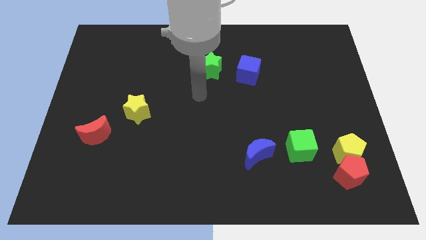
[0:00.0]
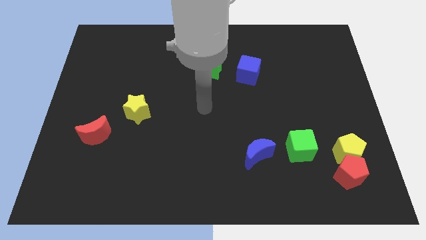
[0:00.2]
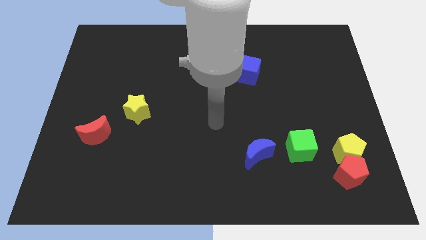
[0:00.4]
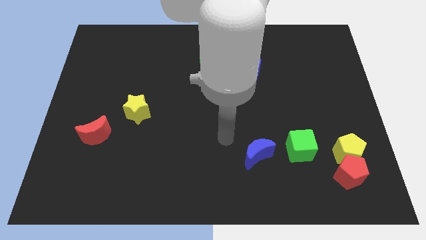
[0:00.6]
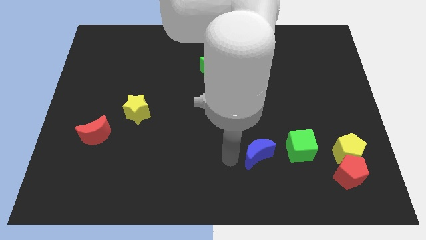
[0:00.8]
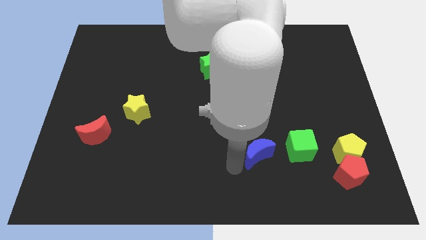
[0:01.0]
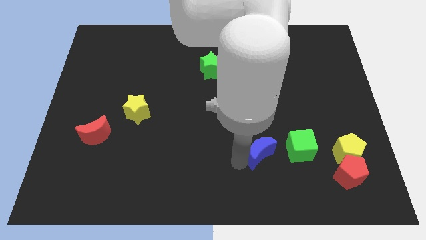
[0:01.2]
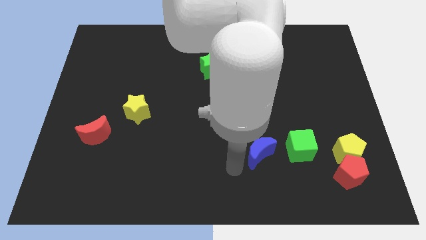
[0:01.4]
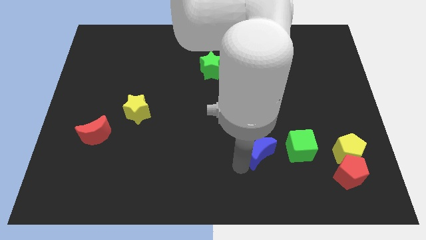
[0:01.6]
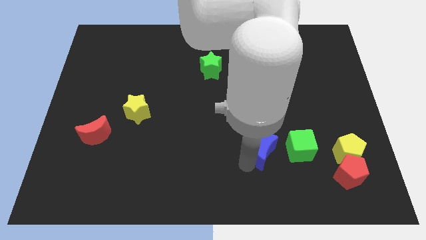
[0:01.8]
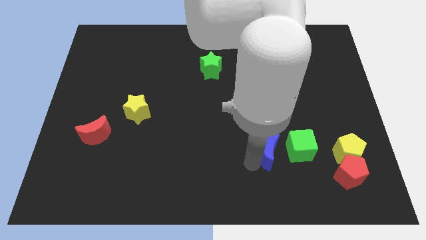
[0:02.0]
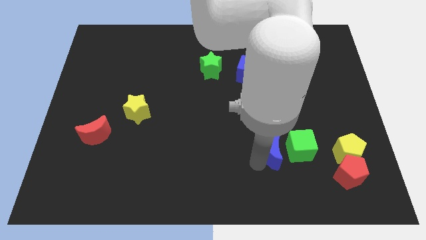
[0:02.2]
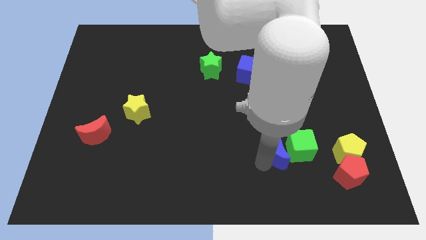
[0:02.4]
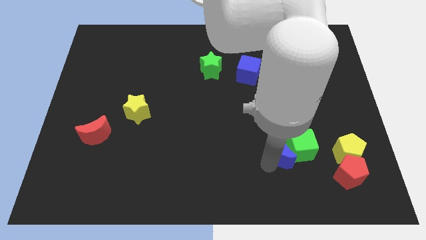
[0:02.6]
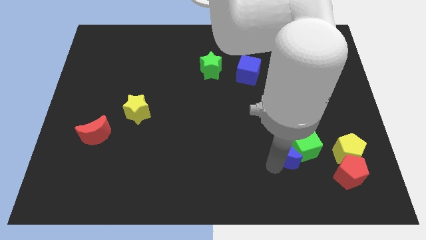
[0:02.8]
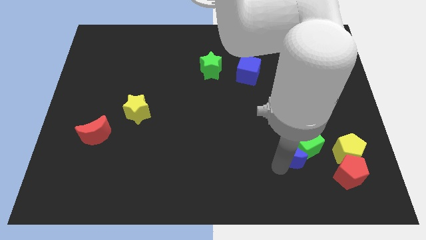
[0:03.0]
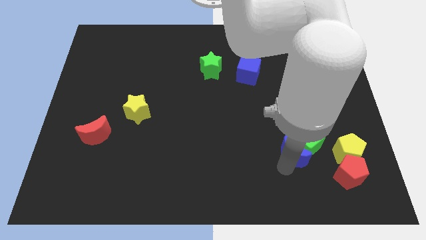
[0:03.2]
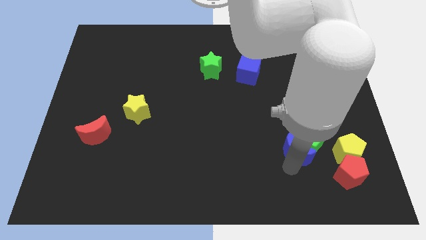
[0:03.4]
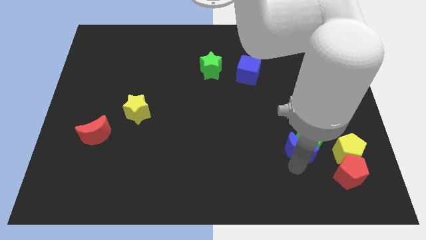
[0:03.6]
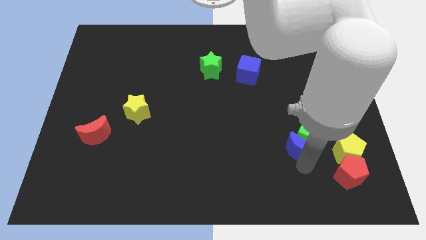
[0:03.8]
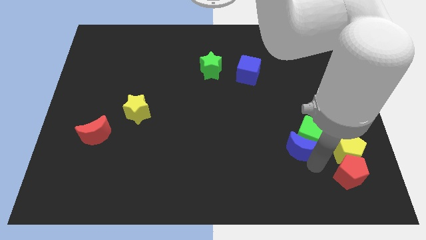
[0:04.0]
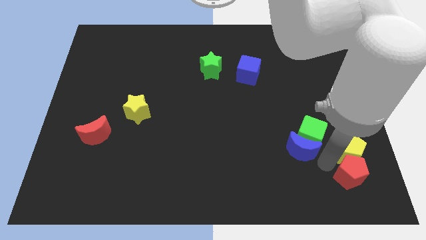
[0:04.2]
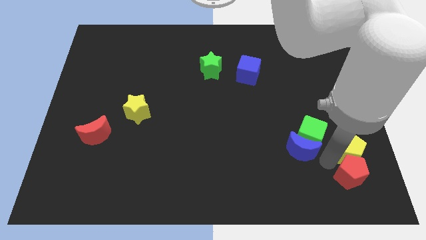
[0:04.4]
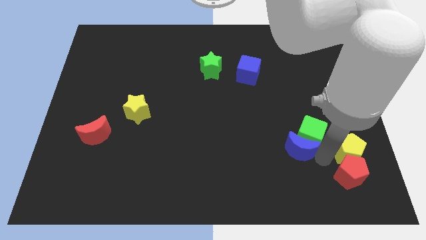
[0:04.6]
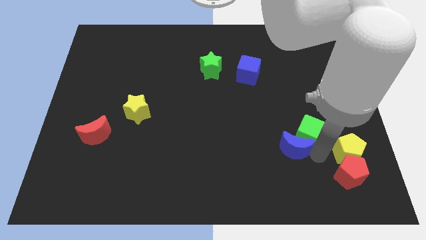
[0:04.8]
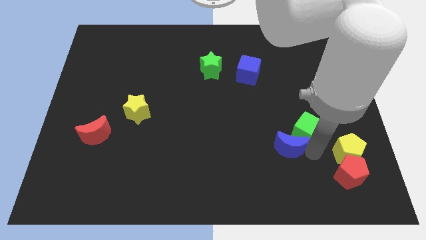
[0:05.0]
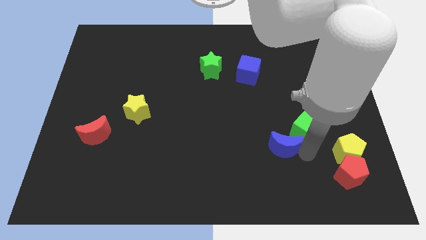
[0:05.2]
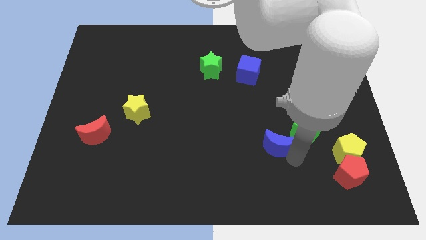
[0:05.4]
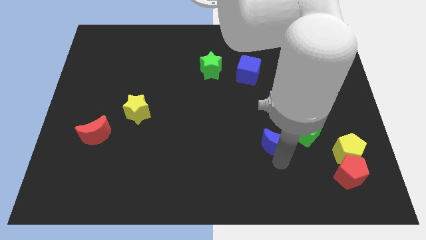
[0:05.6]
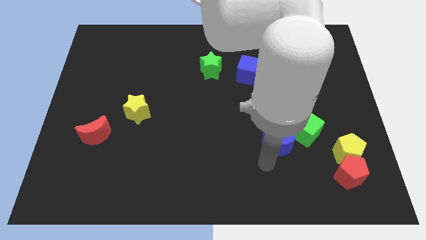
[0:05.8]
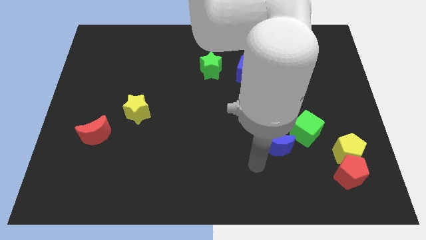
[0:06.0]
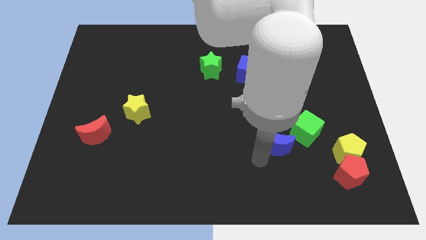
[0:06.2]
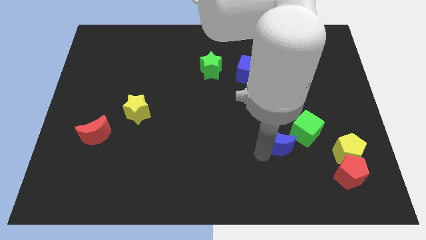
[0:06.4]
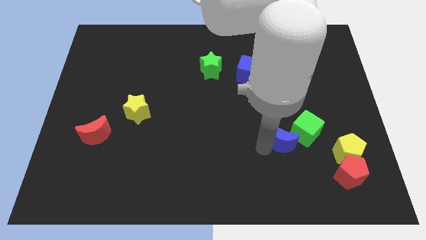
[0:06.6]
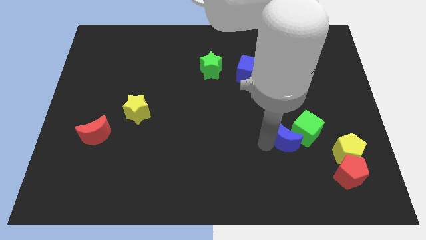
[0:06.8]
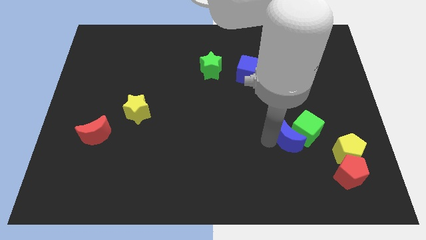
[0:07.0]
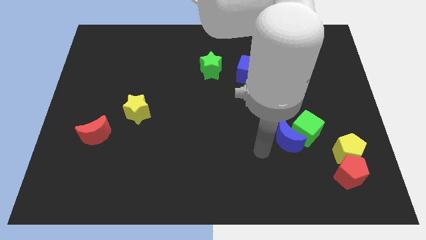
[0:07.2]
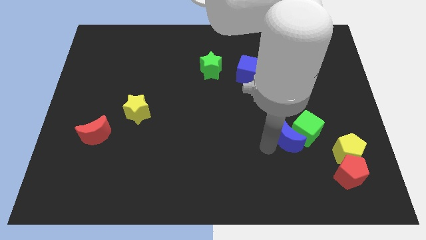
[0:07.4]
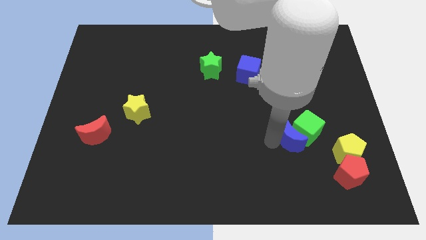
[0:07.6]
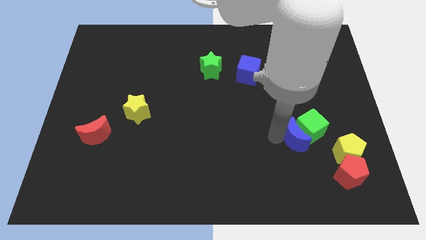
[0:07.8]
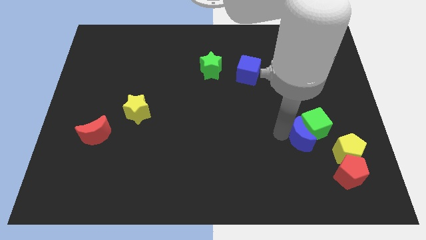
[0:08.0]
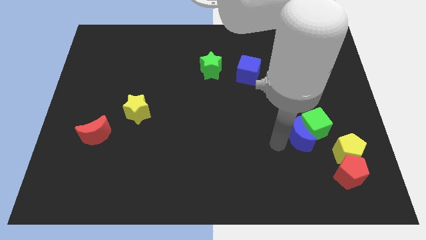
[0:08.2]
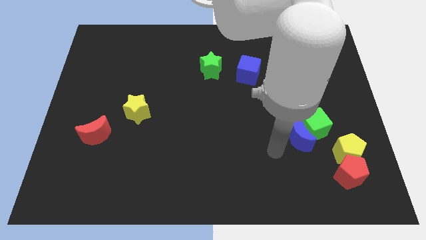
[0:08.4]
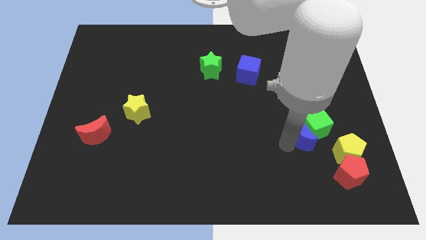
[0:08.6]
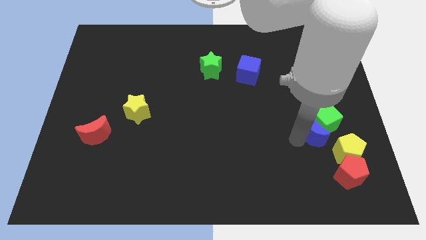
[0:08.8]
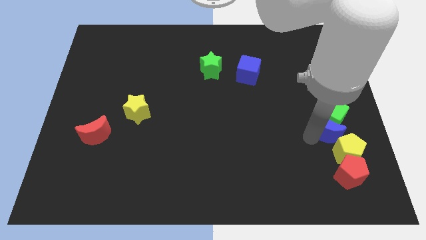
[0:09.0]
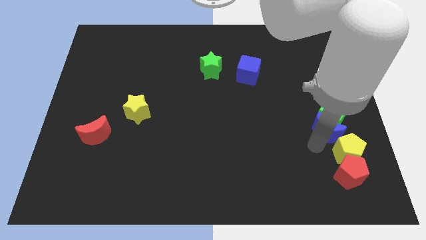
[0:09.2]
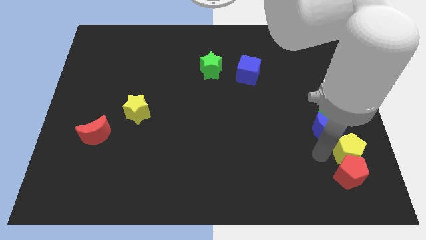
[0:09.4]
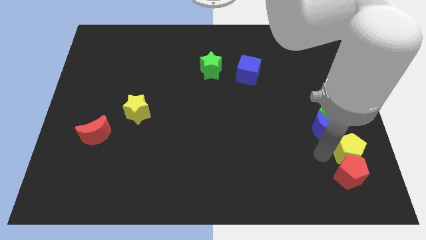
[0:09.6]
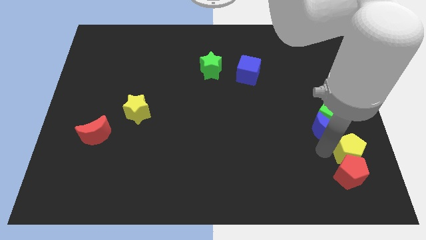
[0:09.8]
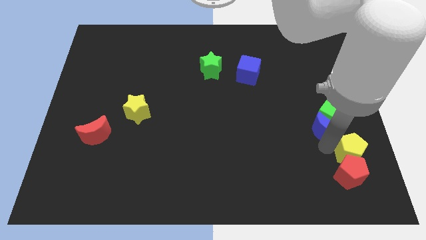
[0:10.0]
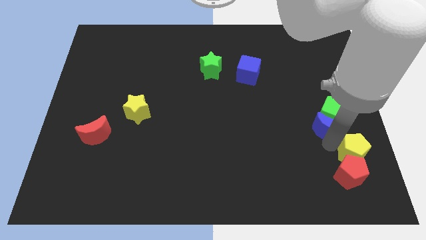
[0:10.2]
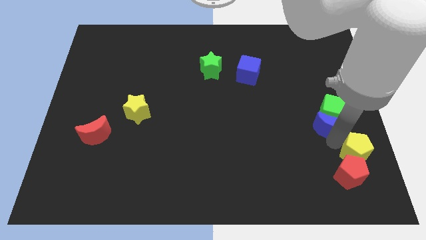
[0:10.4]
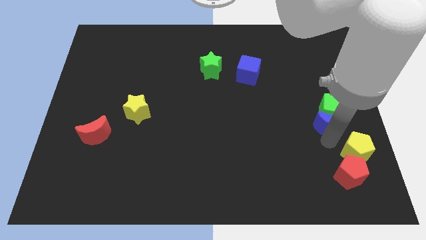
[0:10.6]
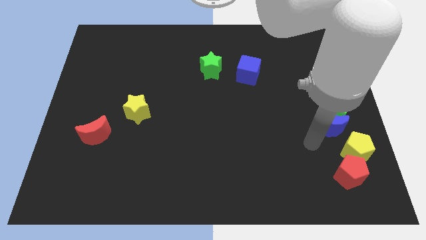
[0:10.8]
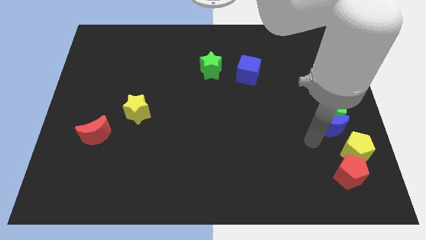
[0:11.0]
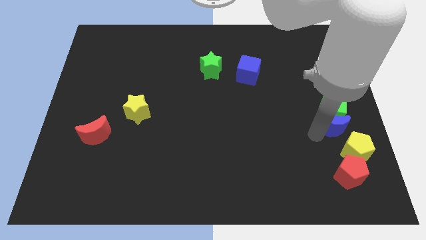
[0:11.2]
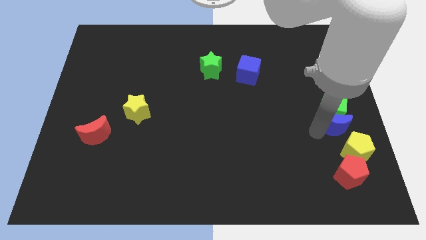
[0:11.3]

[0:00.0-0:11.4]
move the blue moon to the right side of the board
